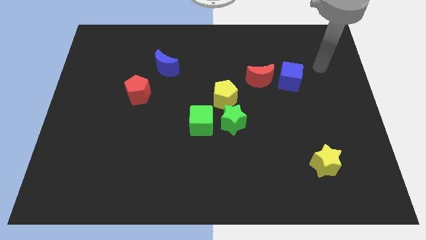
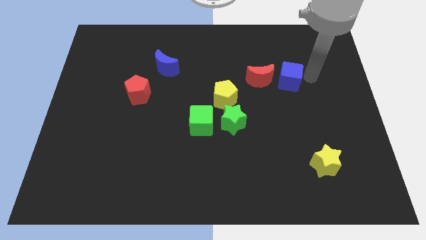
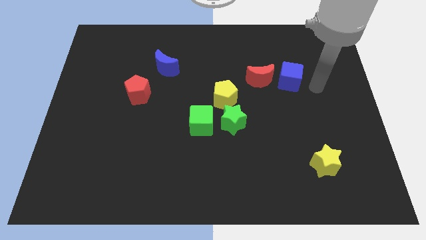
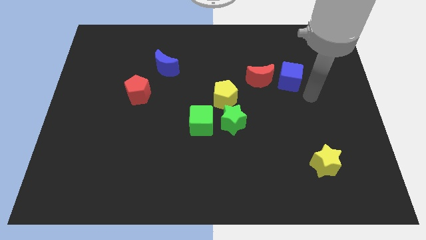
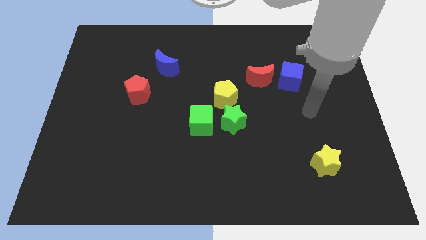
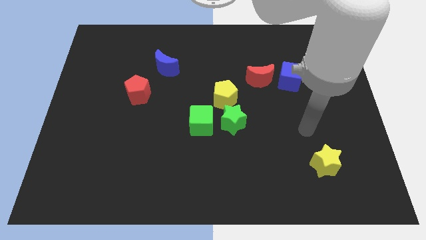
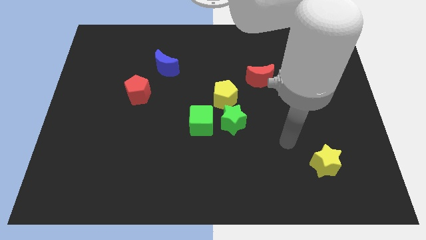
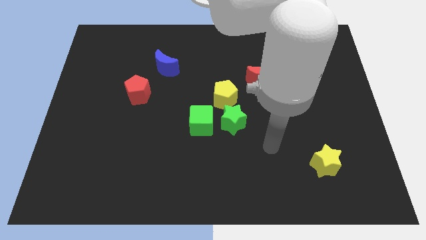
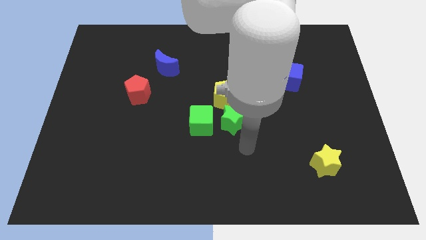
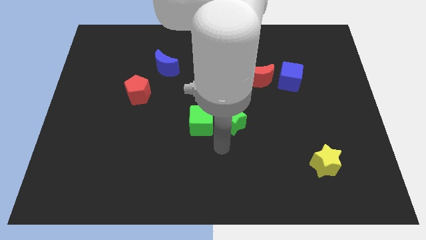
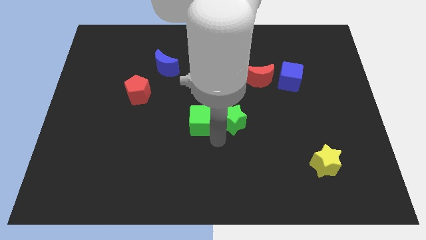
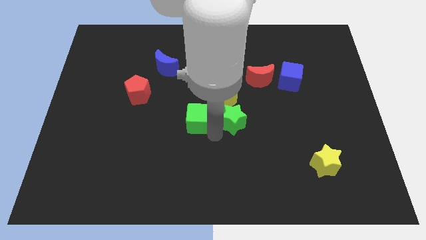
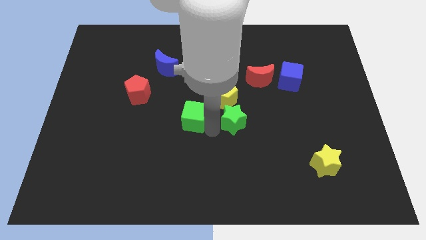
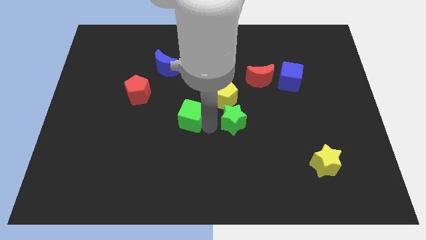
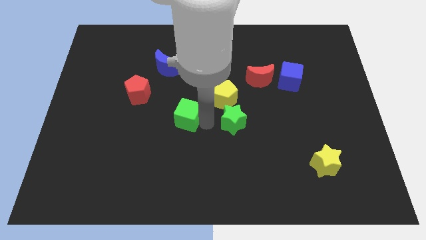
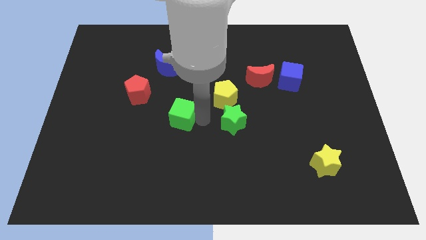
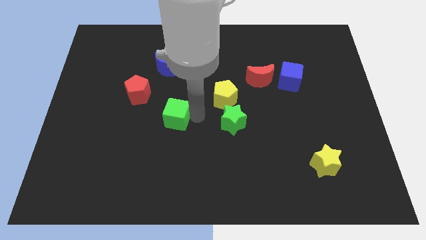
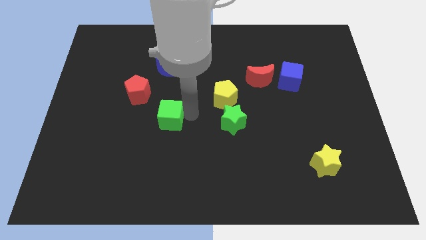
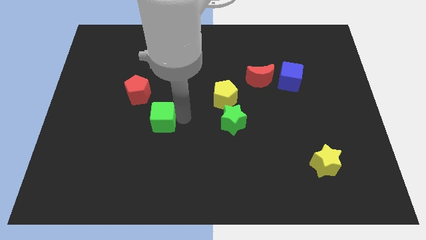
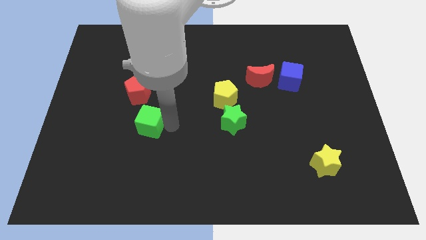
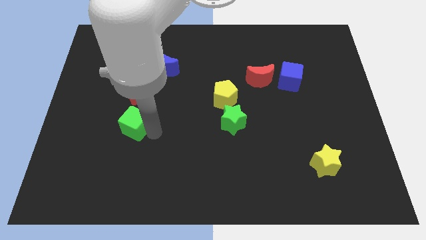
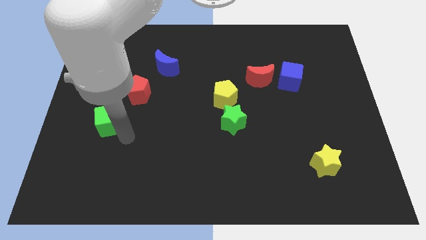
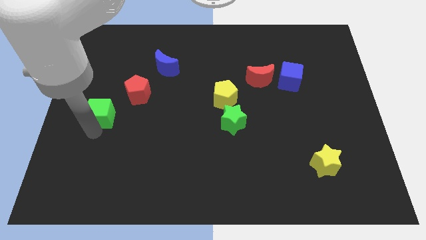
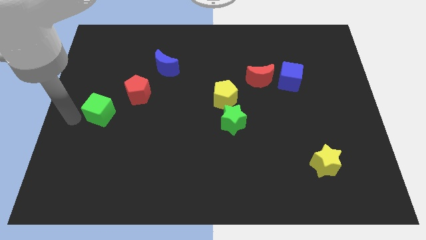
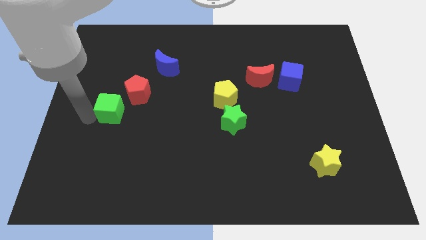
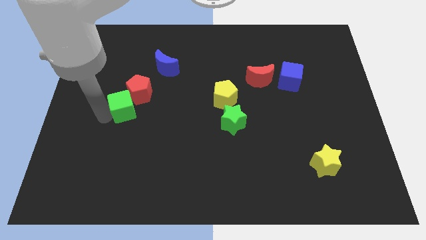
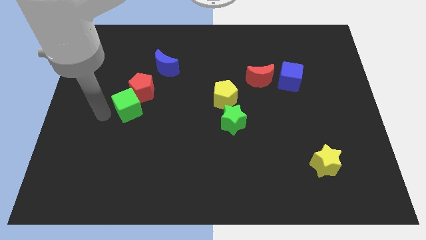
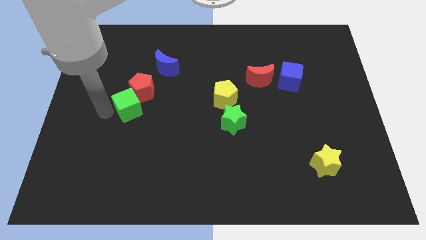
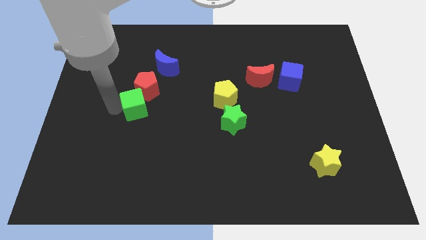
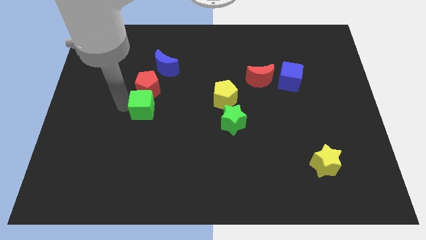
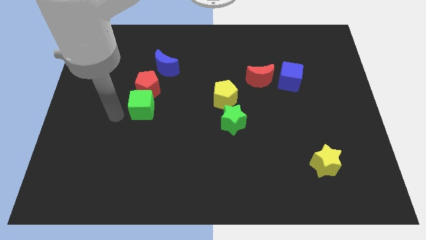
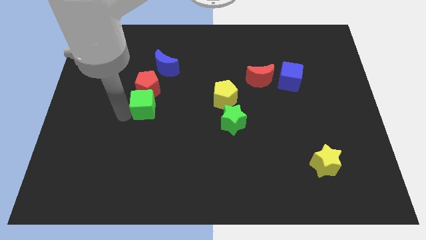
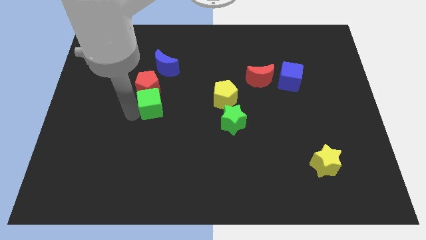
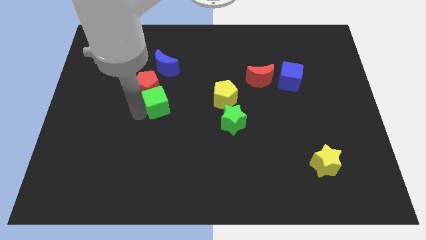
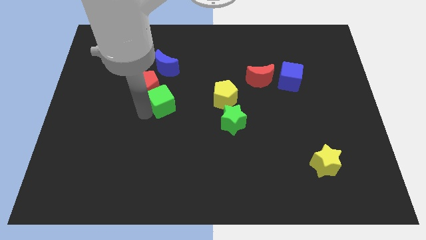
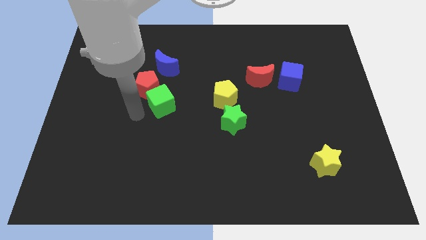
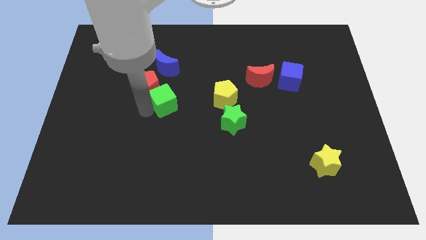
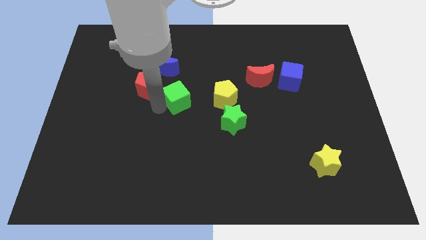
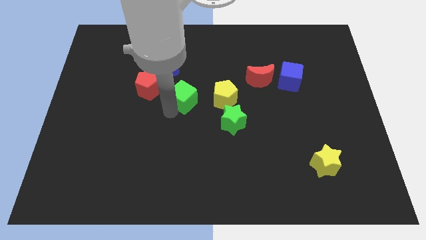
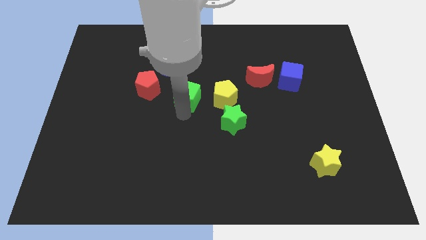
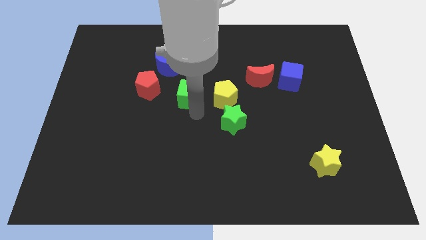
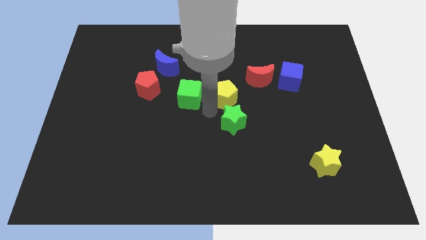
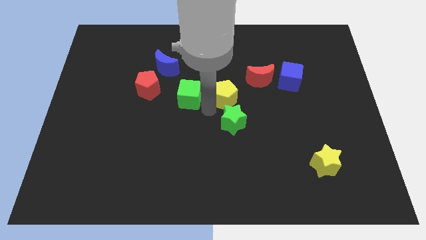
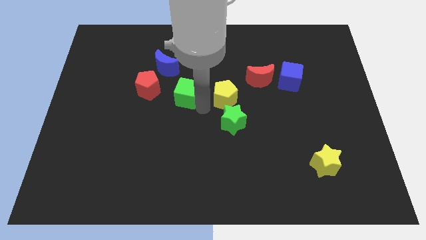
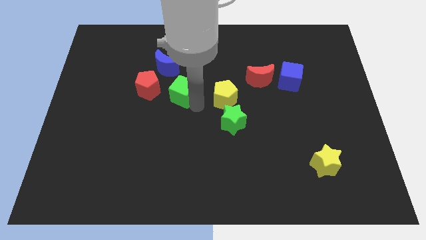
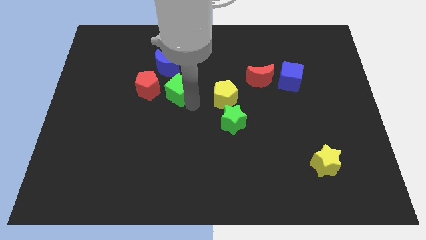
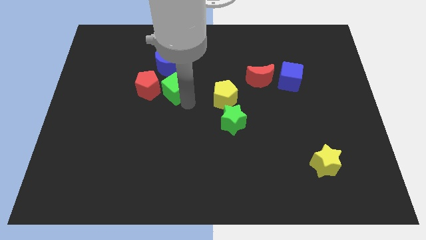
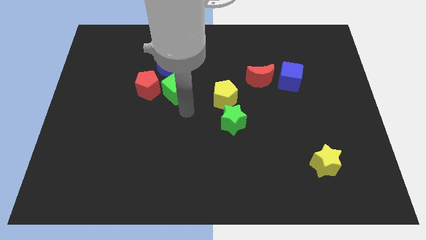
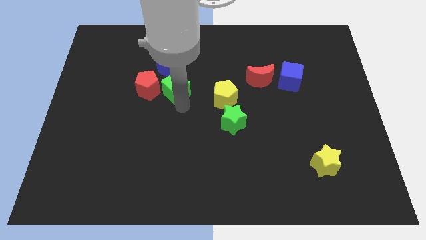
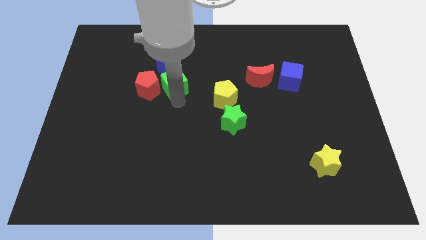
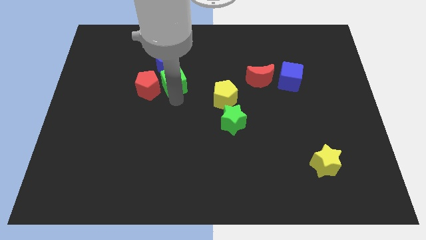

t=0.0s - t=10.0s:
push the green cube next to the blue moon
